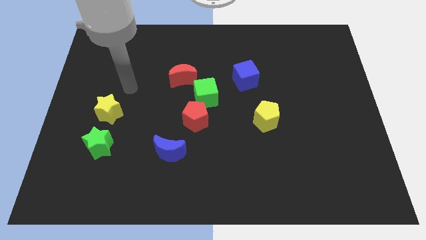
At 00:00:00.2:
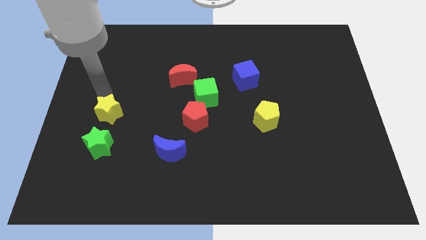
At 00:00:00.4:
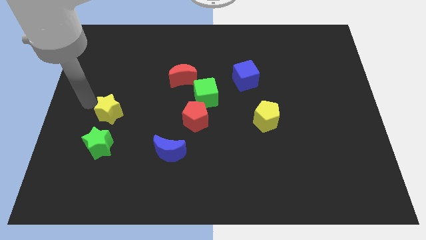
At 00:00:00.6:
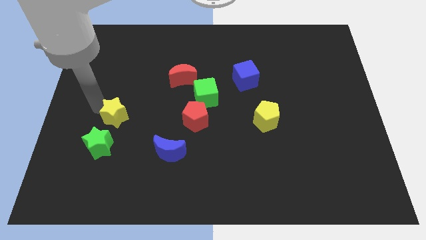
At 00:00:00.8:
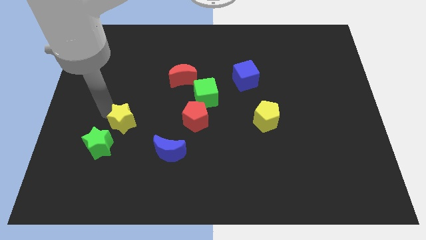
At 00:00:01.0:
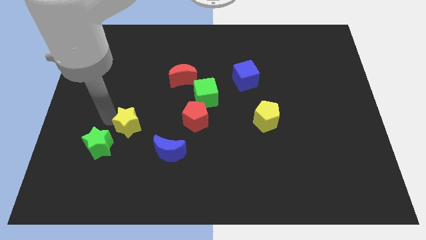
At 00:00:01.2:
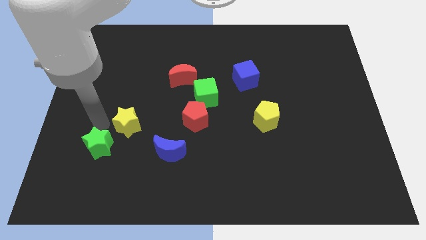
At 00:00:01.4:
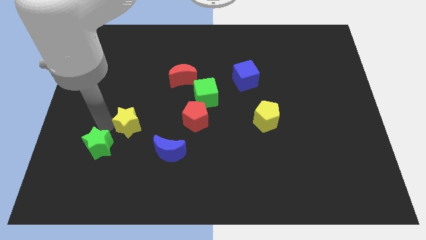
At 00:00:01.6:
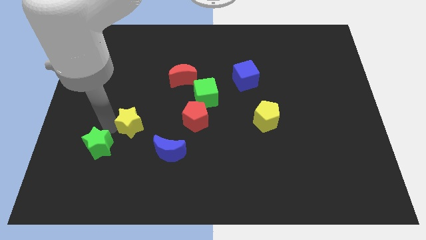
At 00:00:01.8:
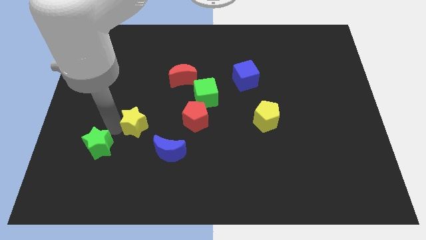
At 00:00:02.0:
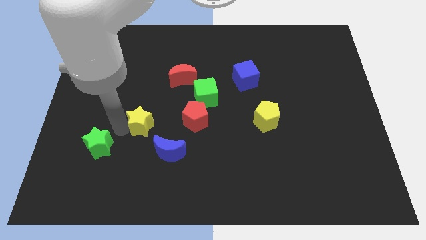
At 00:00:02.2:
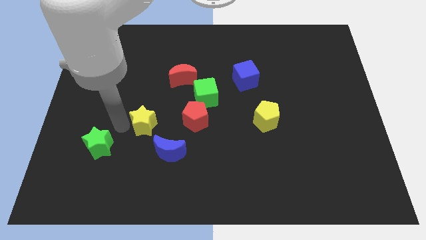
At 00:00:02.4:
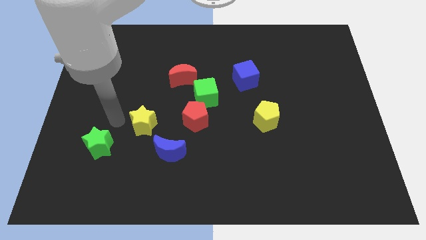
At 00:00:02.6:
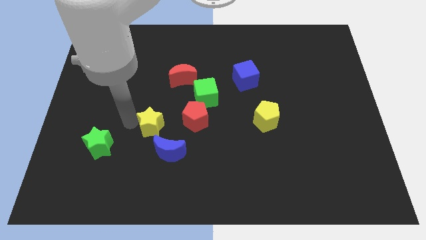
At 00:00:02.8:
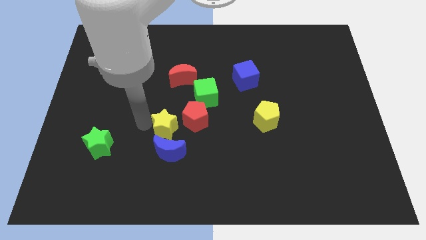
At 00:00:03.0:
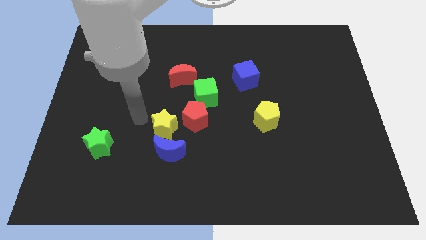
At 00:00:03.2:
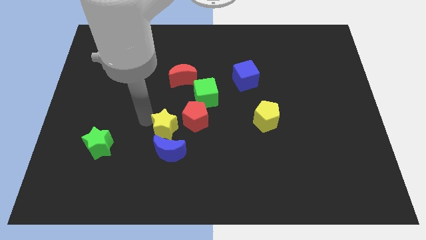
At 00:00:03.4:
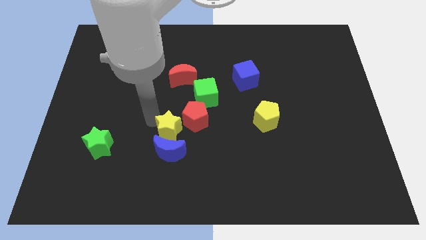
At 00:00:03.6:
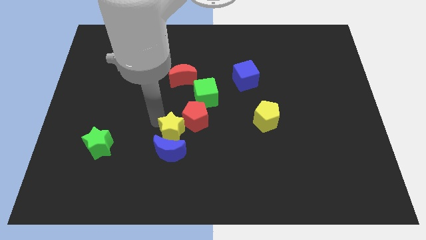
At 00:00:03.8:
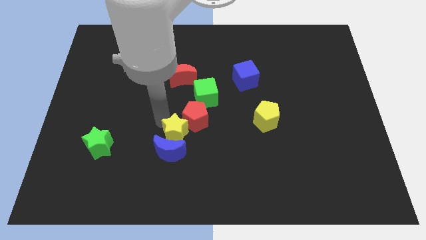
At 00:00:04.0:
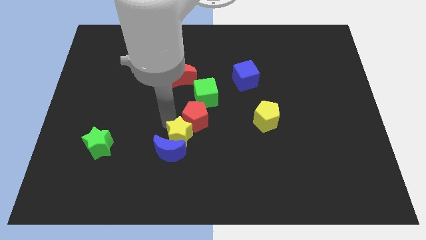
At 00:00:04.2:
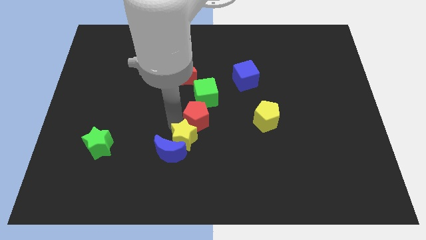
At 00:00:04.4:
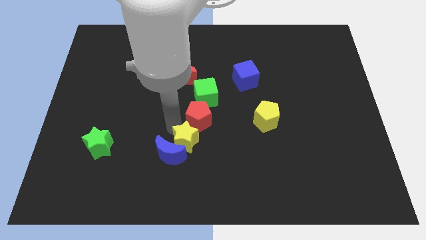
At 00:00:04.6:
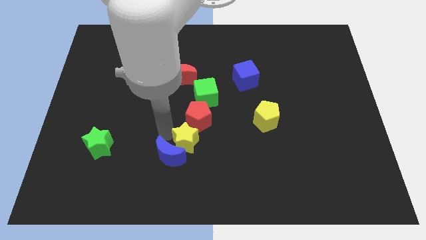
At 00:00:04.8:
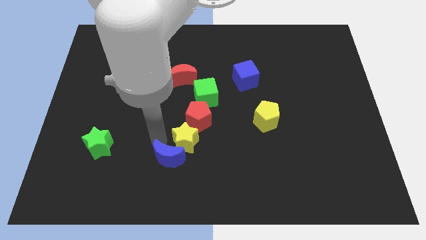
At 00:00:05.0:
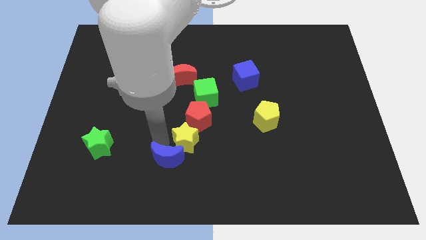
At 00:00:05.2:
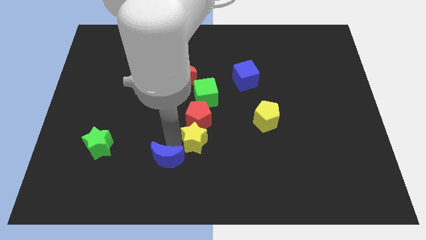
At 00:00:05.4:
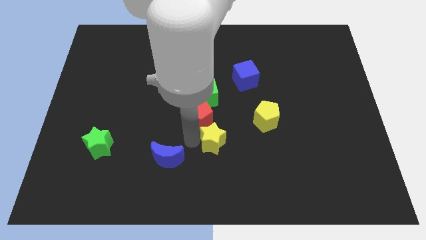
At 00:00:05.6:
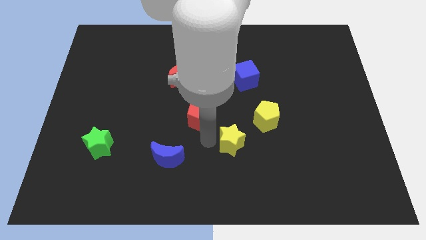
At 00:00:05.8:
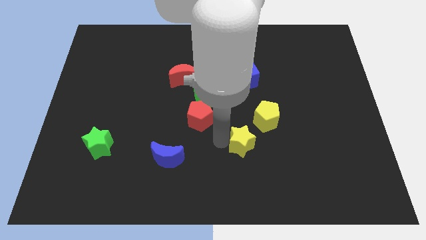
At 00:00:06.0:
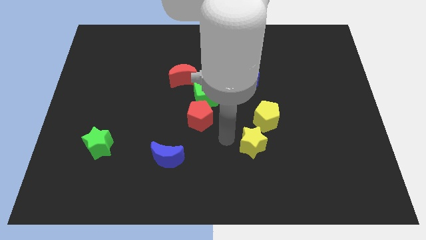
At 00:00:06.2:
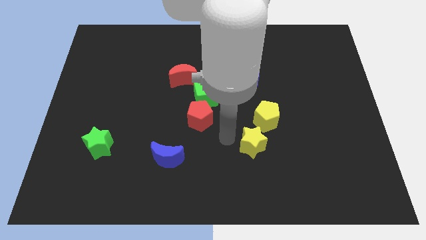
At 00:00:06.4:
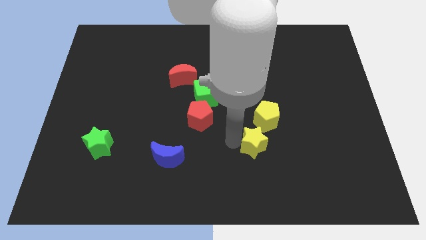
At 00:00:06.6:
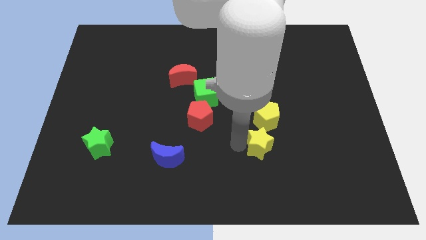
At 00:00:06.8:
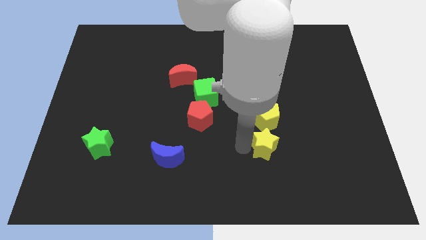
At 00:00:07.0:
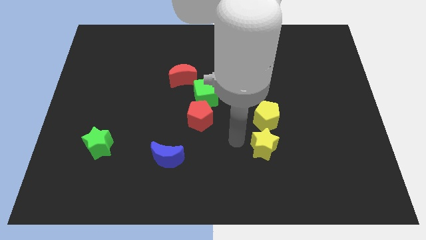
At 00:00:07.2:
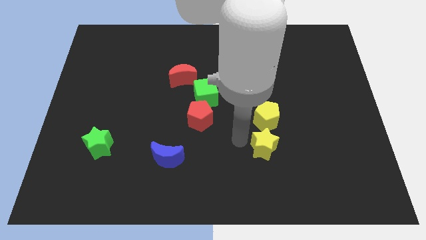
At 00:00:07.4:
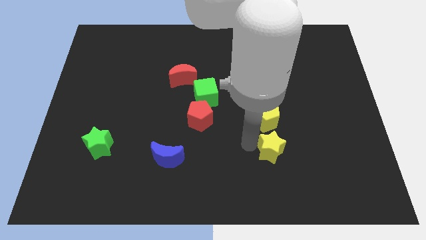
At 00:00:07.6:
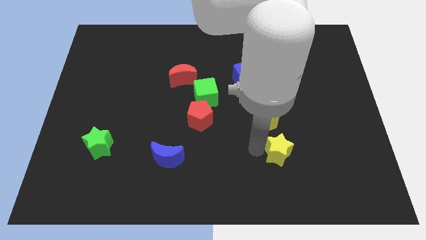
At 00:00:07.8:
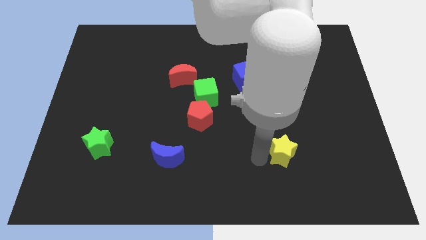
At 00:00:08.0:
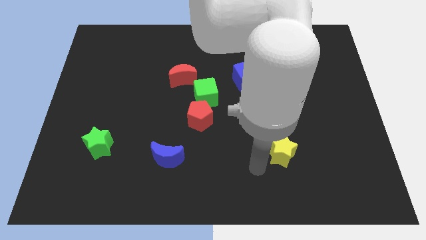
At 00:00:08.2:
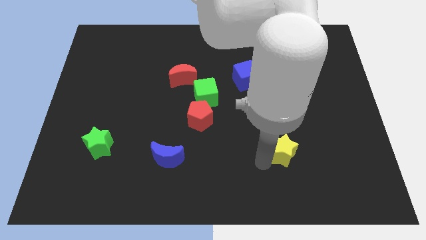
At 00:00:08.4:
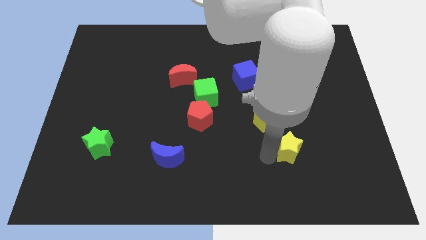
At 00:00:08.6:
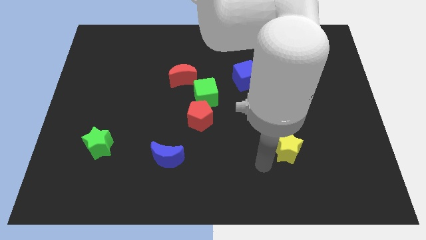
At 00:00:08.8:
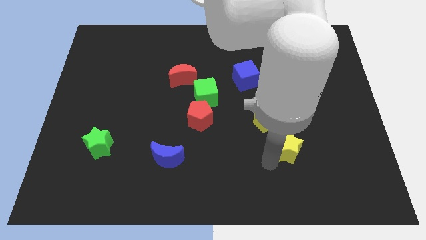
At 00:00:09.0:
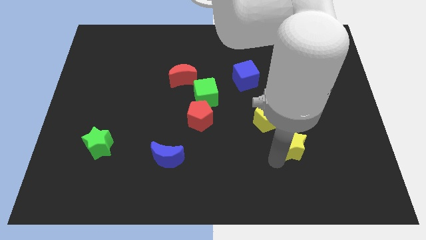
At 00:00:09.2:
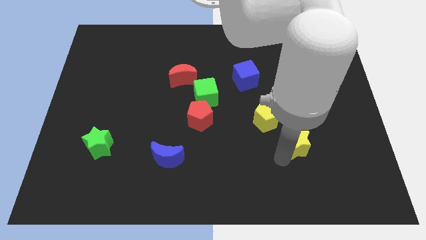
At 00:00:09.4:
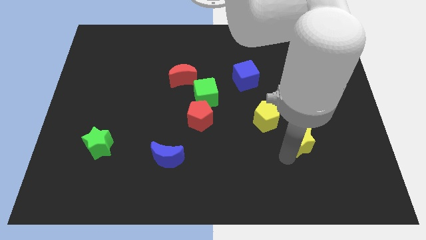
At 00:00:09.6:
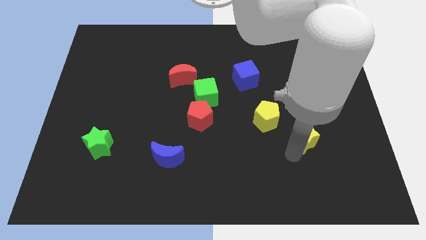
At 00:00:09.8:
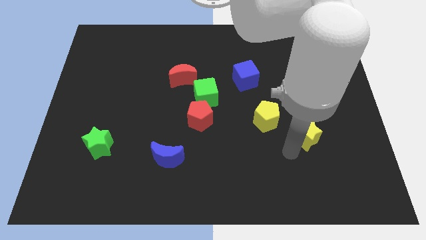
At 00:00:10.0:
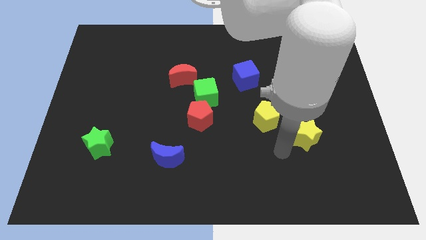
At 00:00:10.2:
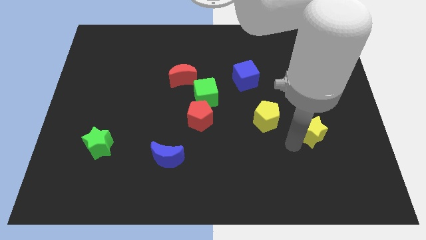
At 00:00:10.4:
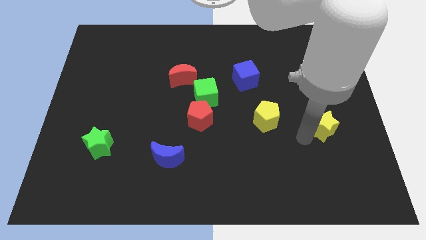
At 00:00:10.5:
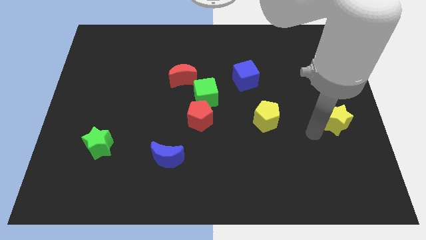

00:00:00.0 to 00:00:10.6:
push the yellow star to the center right
